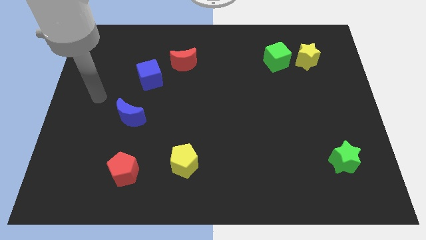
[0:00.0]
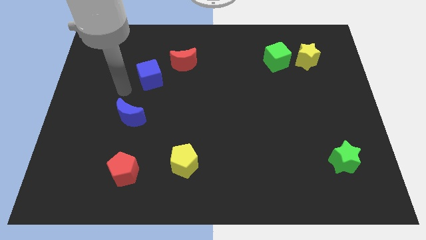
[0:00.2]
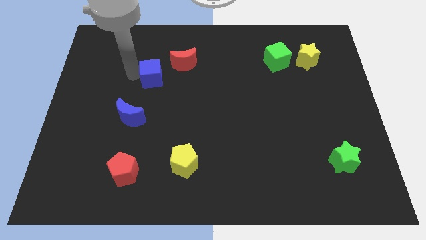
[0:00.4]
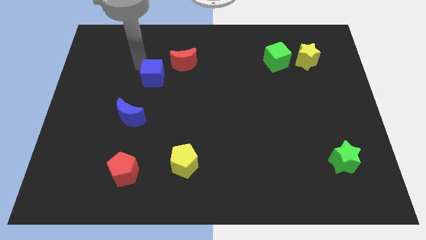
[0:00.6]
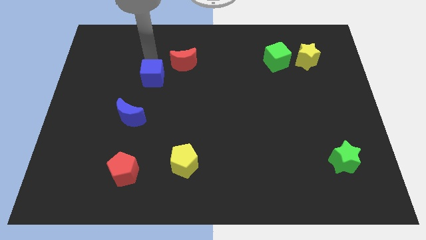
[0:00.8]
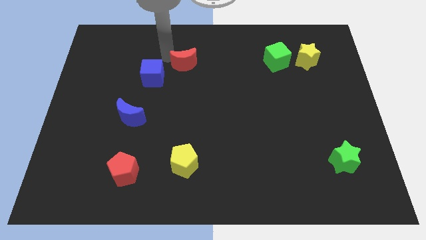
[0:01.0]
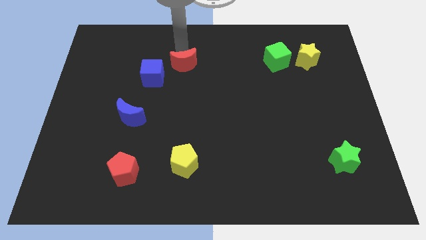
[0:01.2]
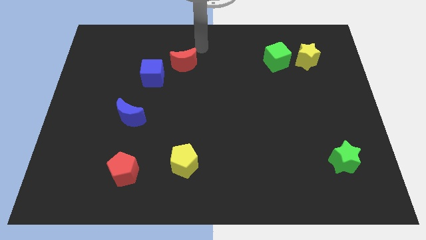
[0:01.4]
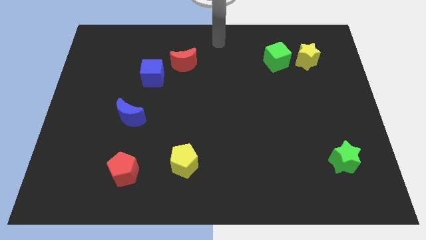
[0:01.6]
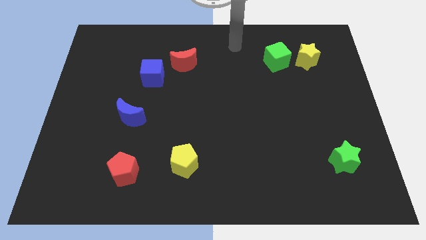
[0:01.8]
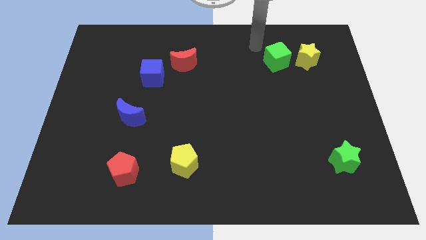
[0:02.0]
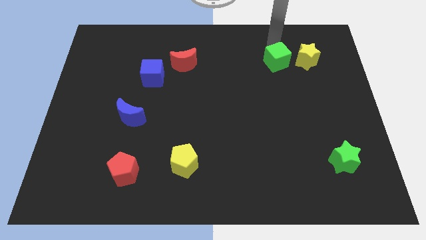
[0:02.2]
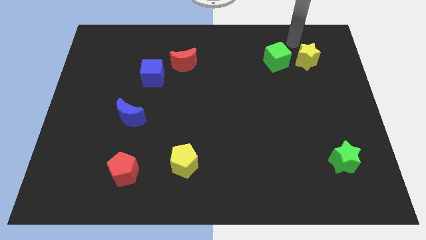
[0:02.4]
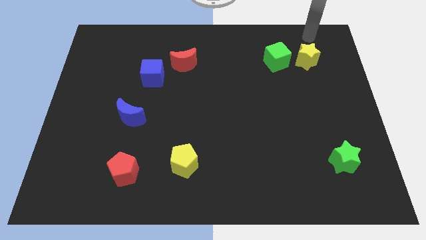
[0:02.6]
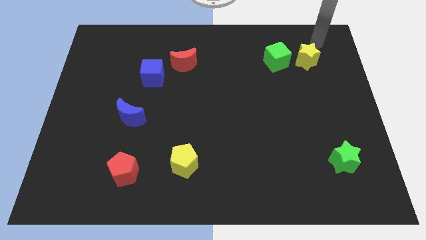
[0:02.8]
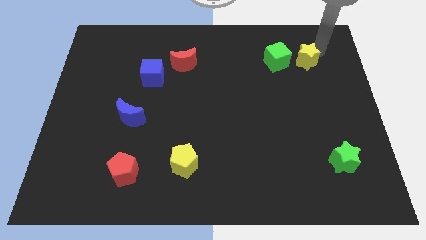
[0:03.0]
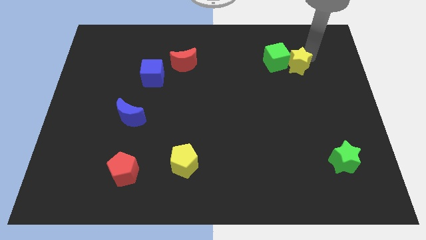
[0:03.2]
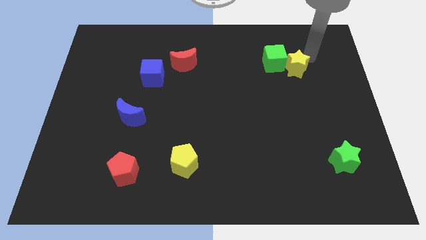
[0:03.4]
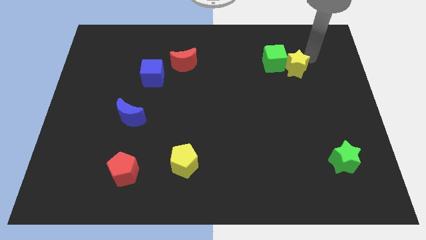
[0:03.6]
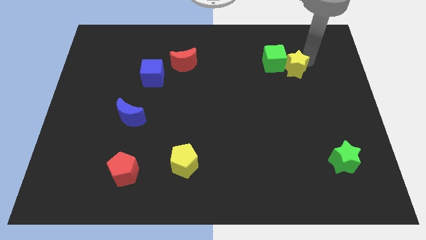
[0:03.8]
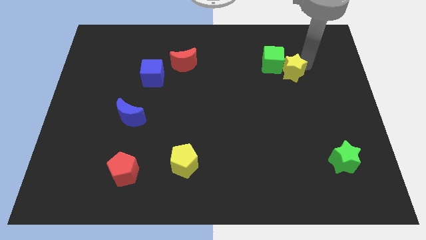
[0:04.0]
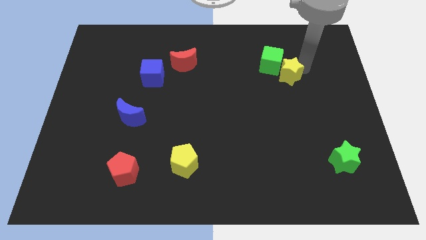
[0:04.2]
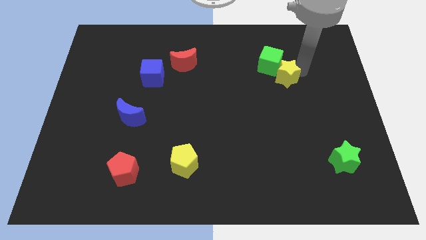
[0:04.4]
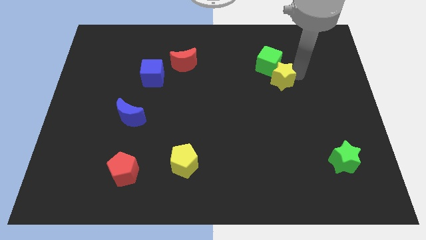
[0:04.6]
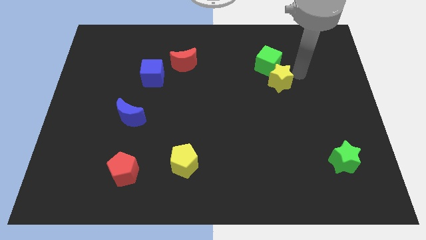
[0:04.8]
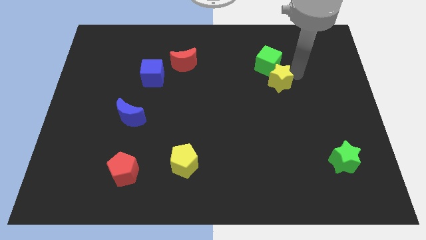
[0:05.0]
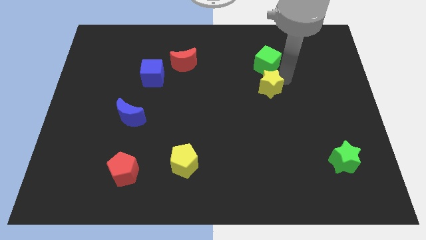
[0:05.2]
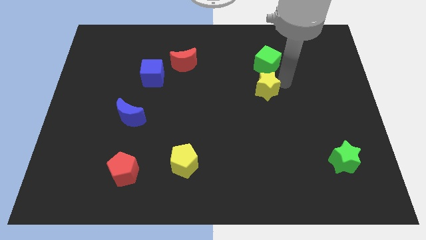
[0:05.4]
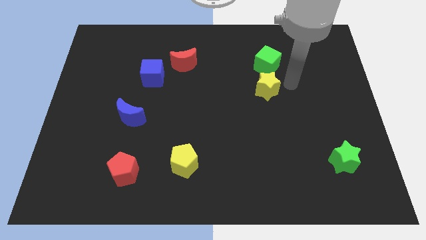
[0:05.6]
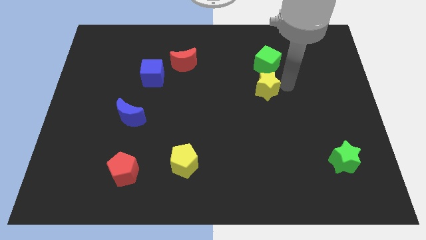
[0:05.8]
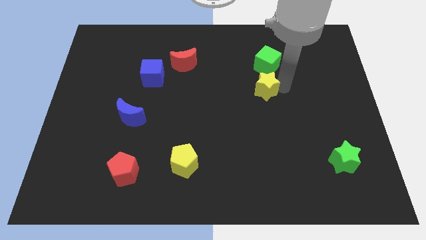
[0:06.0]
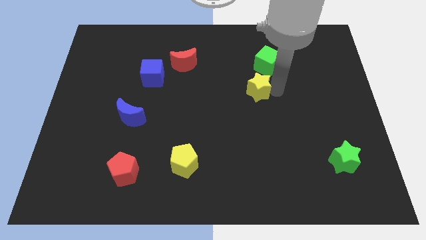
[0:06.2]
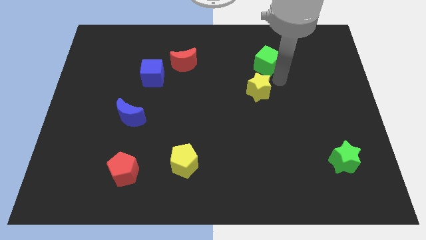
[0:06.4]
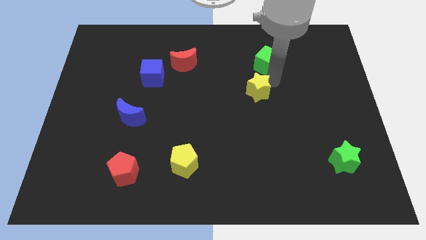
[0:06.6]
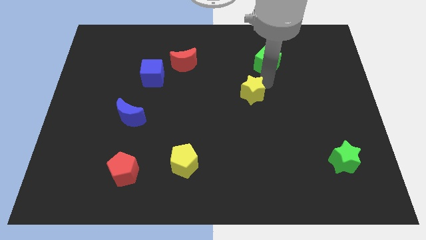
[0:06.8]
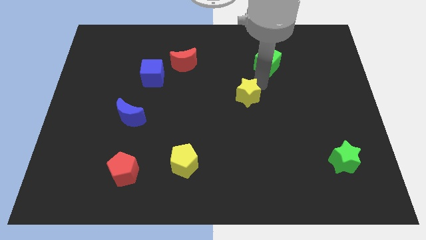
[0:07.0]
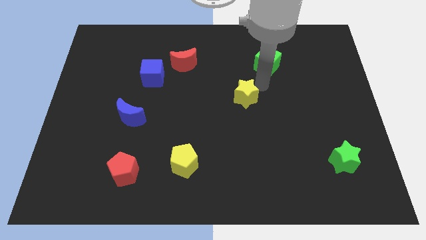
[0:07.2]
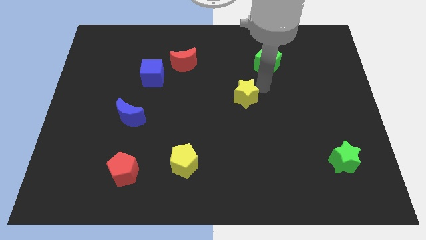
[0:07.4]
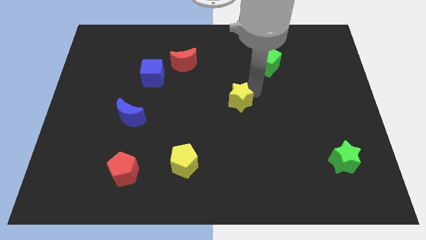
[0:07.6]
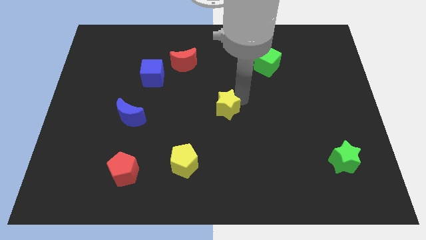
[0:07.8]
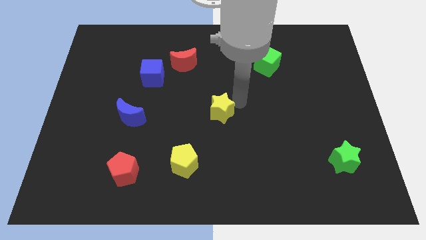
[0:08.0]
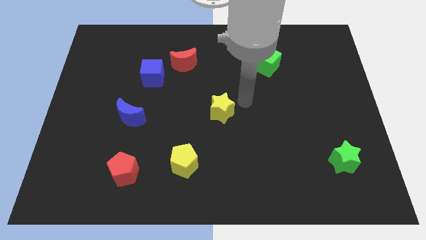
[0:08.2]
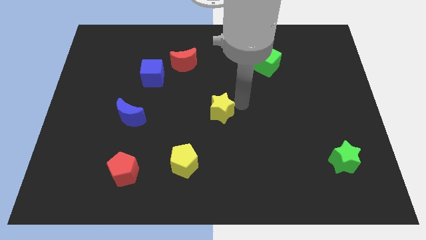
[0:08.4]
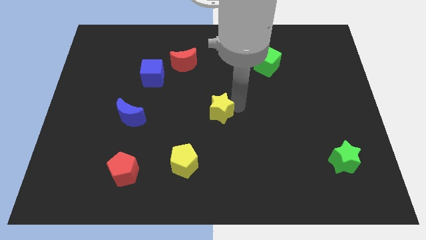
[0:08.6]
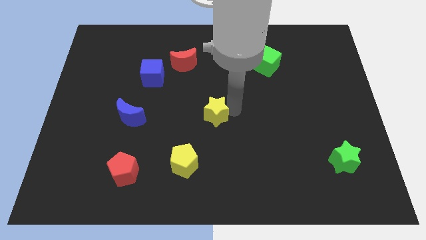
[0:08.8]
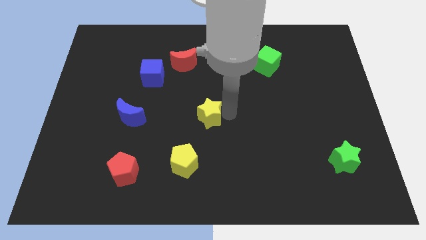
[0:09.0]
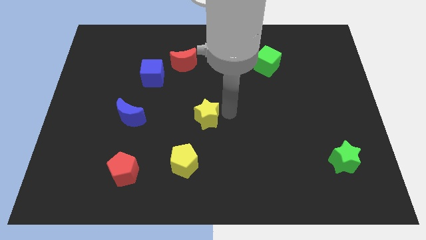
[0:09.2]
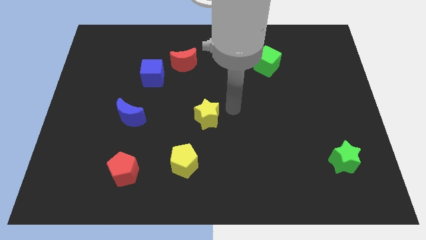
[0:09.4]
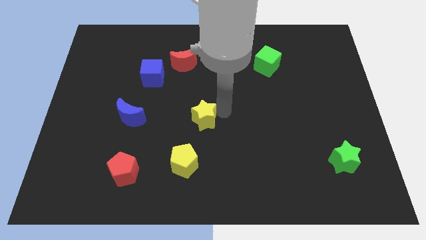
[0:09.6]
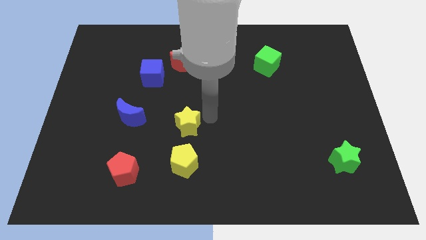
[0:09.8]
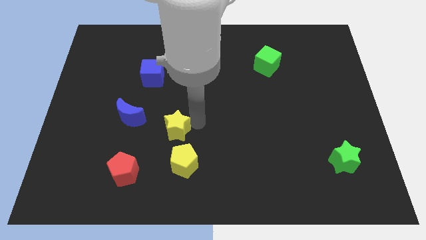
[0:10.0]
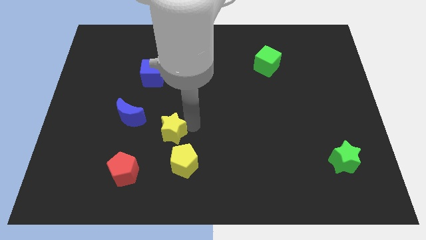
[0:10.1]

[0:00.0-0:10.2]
put the yellow star diagonally down and to the right of the blue moon

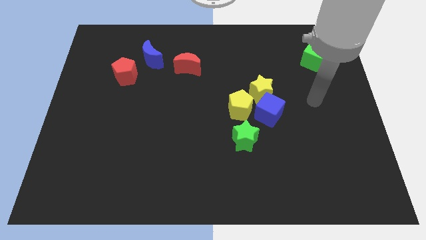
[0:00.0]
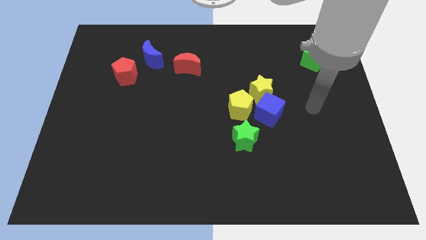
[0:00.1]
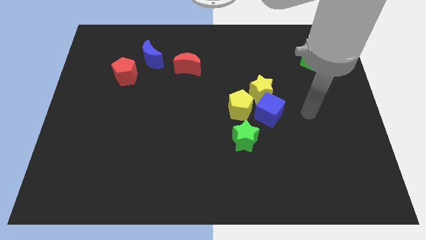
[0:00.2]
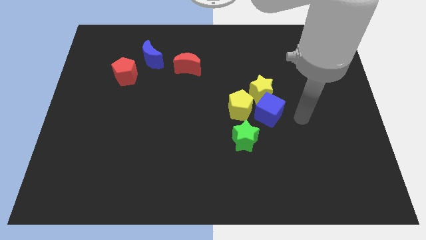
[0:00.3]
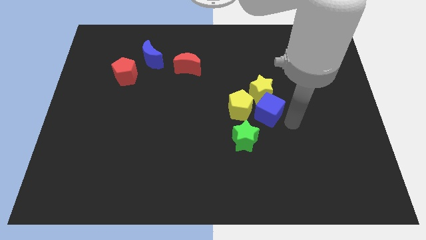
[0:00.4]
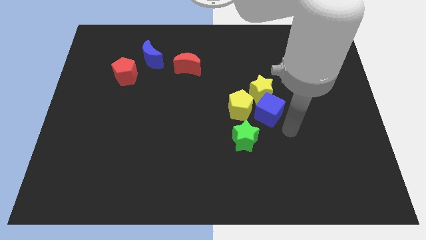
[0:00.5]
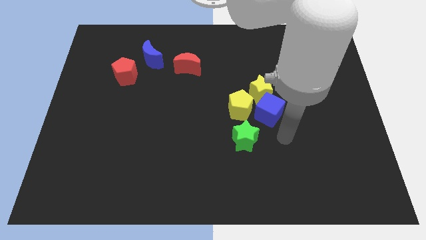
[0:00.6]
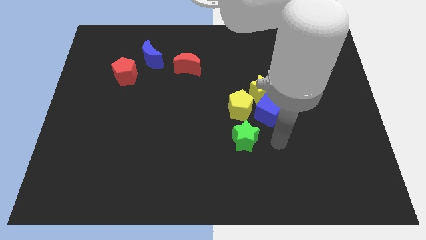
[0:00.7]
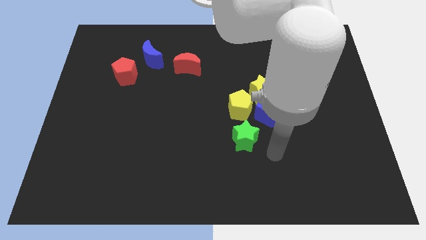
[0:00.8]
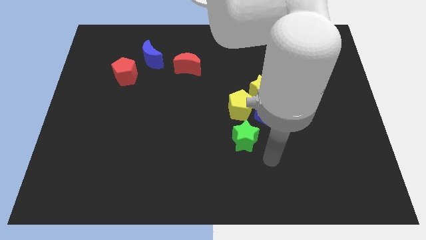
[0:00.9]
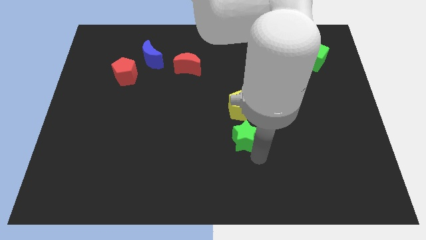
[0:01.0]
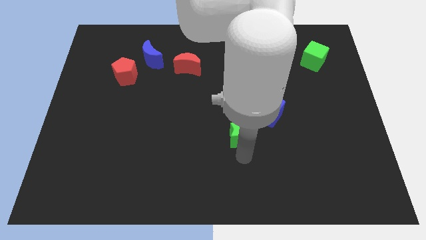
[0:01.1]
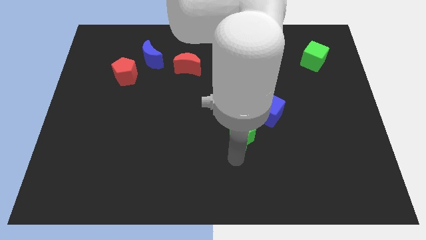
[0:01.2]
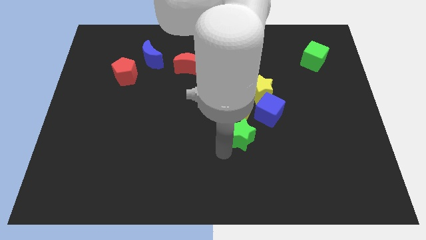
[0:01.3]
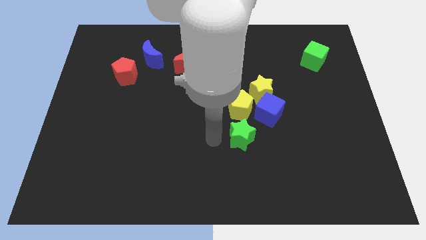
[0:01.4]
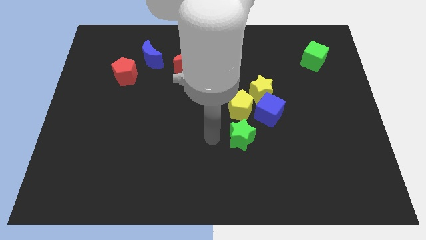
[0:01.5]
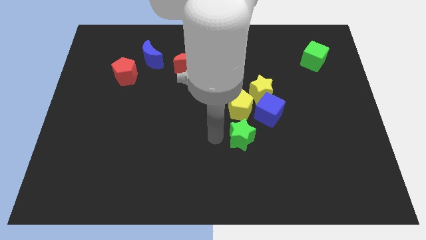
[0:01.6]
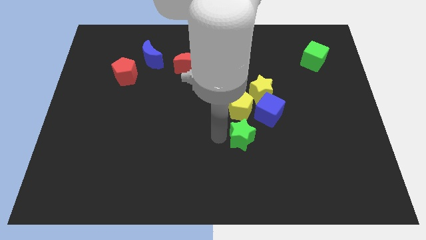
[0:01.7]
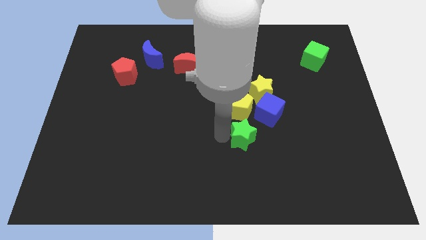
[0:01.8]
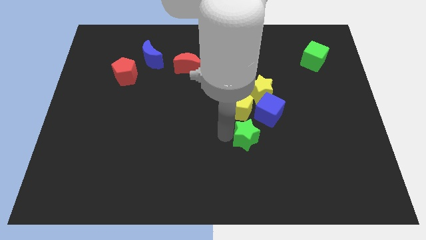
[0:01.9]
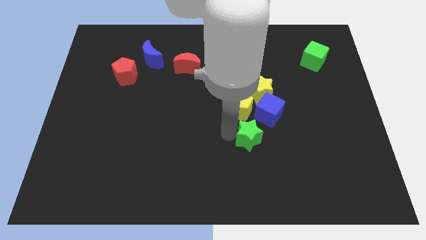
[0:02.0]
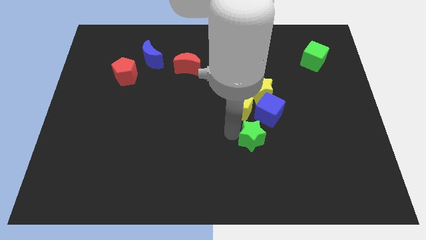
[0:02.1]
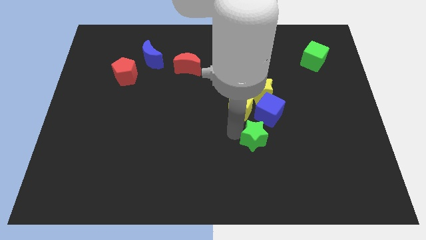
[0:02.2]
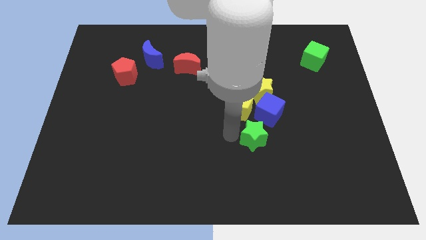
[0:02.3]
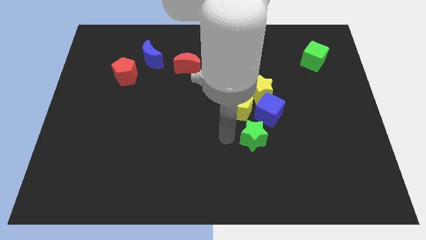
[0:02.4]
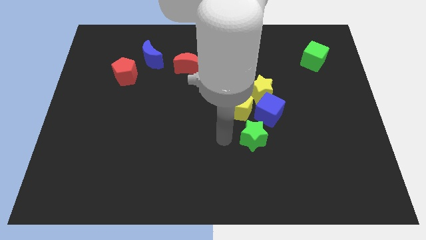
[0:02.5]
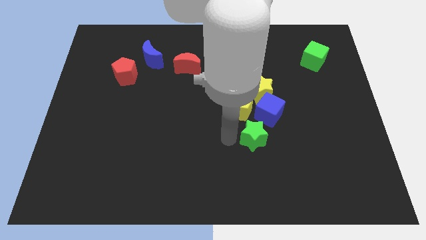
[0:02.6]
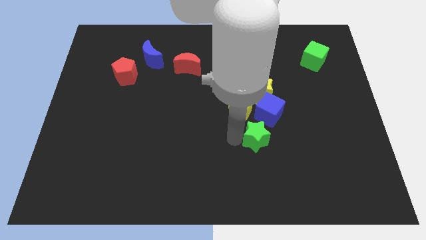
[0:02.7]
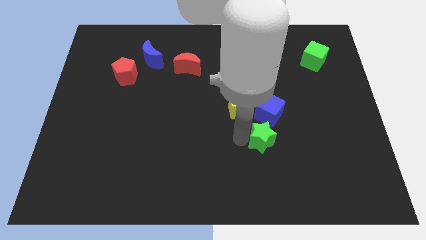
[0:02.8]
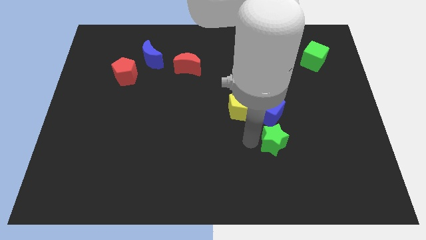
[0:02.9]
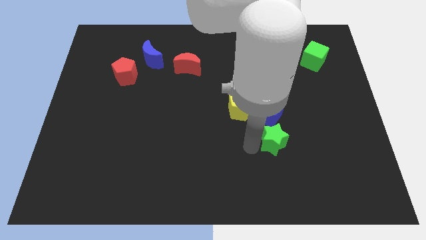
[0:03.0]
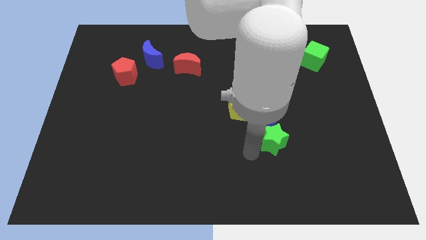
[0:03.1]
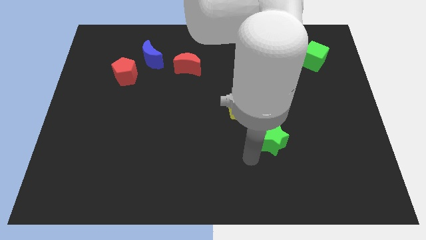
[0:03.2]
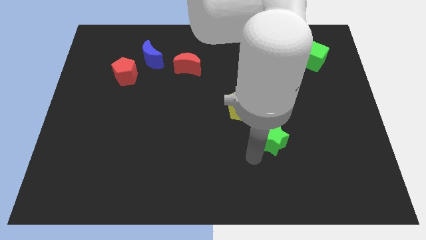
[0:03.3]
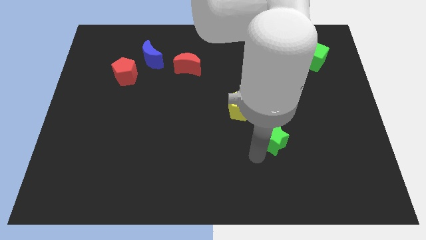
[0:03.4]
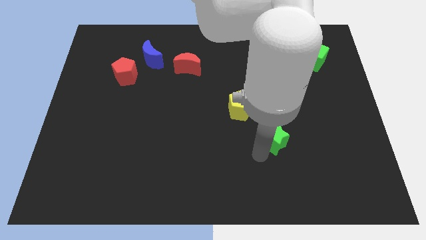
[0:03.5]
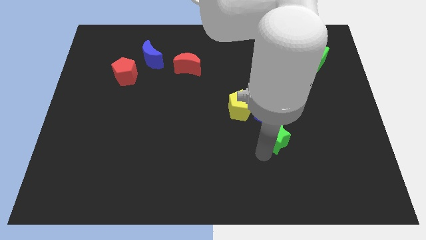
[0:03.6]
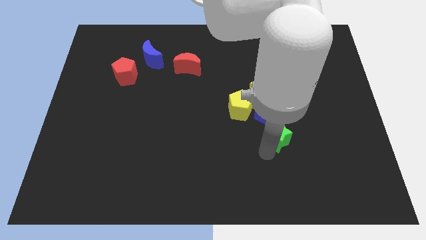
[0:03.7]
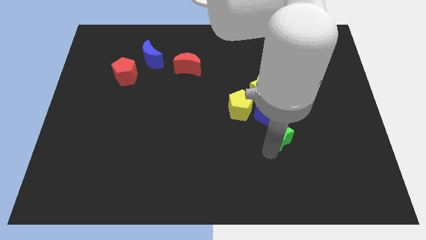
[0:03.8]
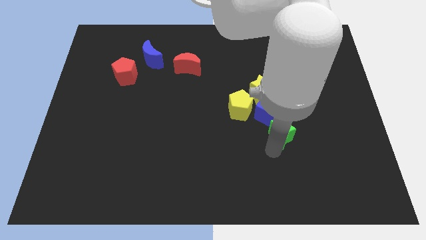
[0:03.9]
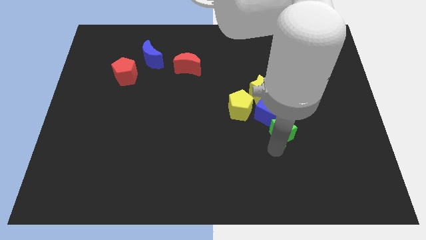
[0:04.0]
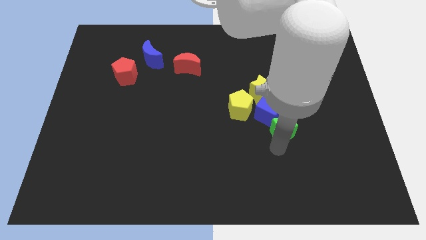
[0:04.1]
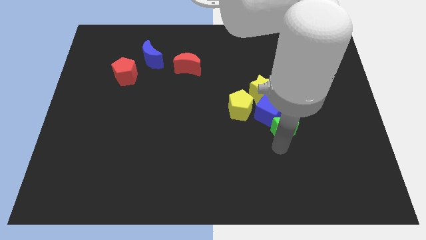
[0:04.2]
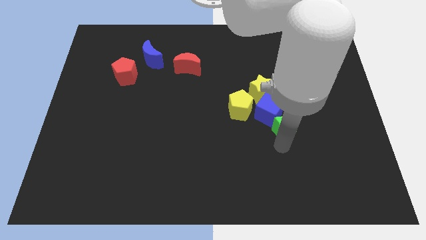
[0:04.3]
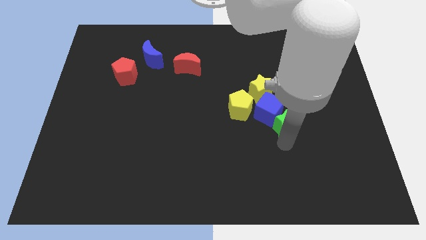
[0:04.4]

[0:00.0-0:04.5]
put the green star to the right side of the blue cube
